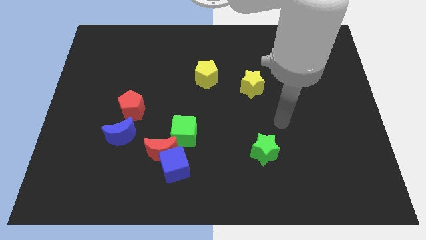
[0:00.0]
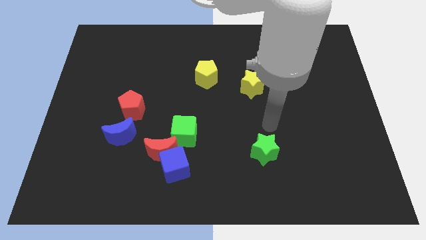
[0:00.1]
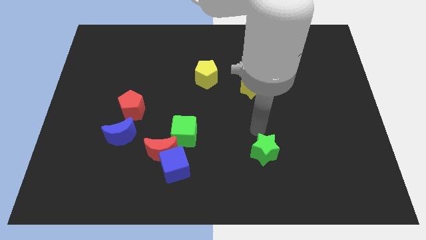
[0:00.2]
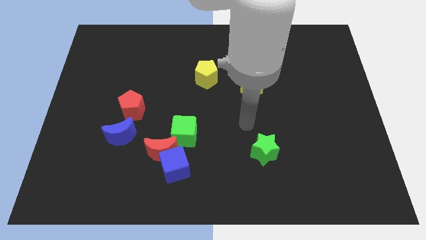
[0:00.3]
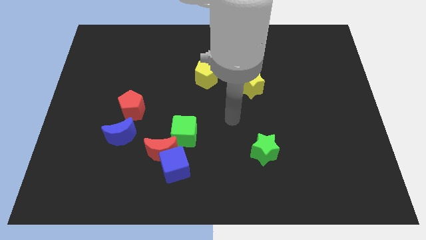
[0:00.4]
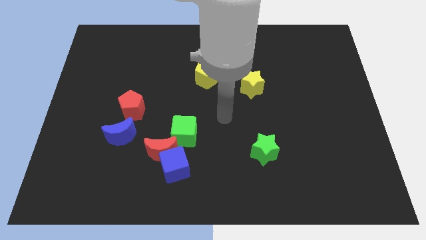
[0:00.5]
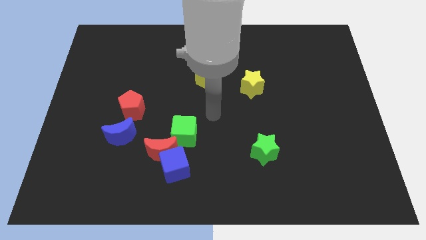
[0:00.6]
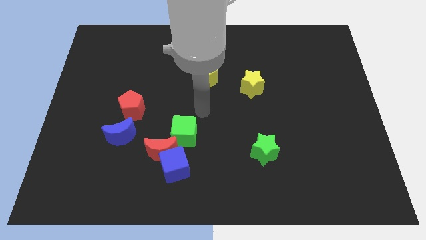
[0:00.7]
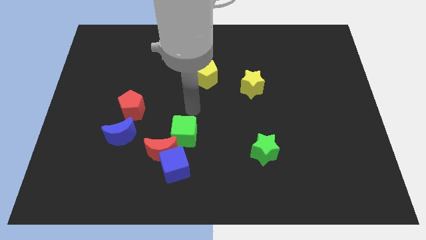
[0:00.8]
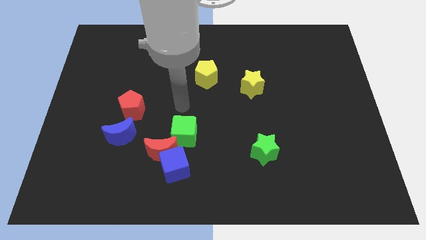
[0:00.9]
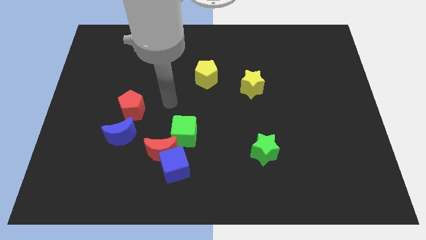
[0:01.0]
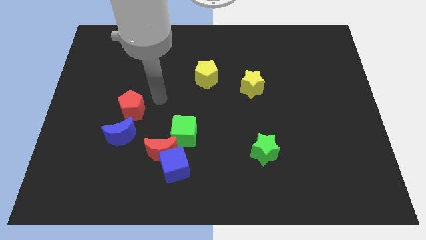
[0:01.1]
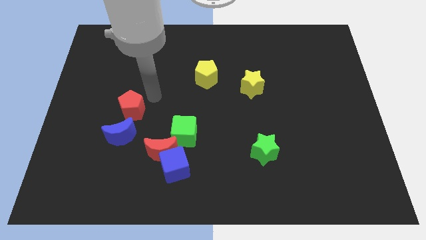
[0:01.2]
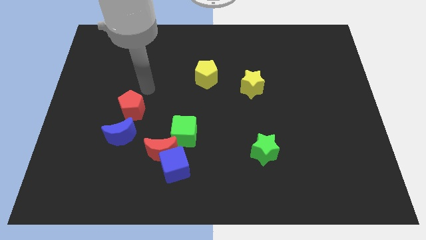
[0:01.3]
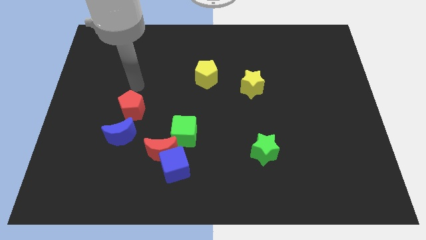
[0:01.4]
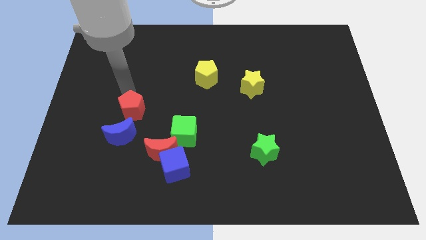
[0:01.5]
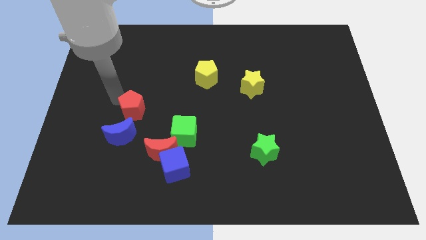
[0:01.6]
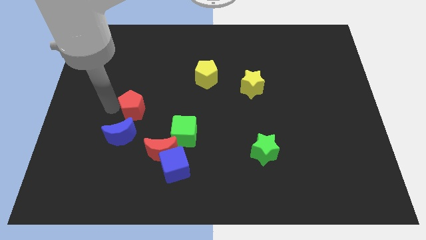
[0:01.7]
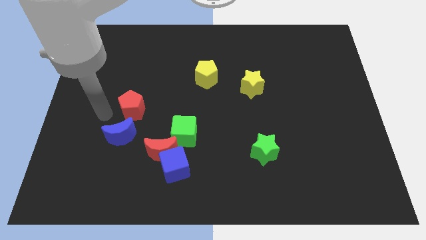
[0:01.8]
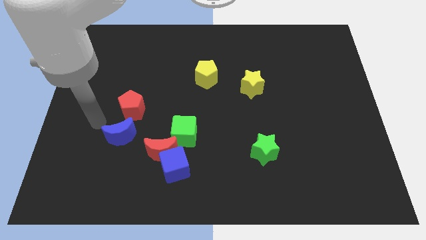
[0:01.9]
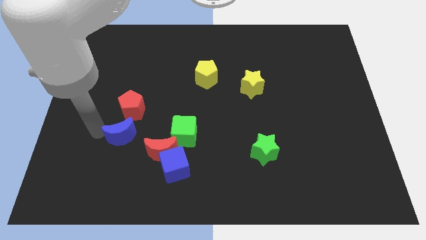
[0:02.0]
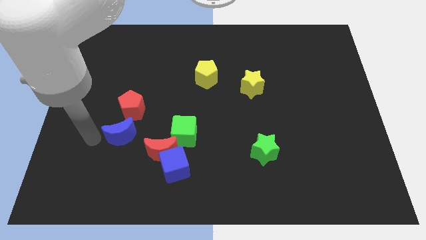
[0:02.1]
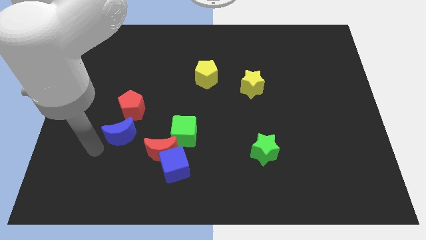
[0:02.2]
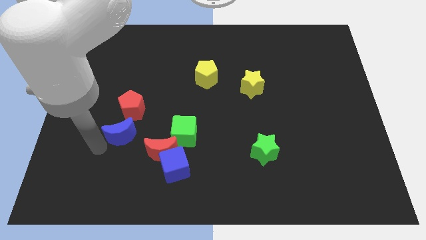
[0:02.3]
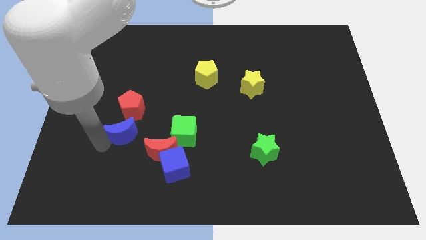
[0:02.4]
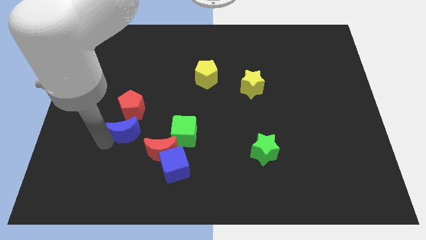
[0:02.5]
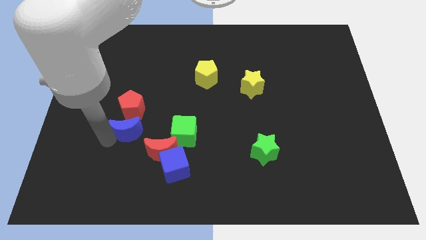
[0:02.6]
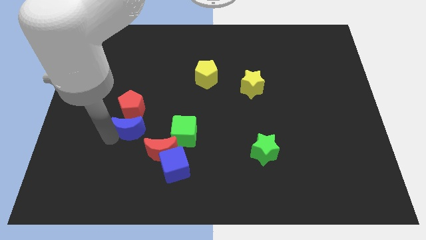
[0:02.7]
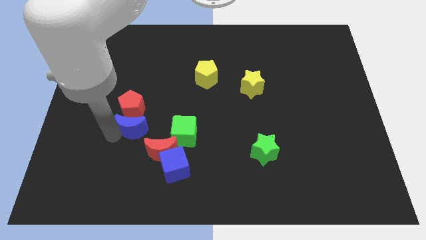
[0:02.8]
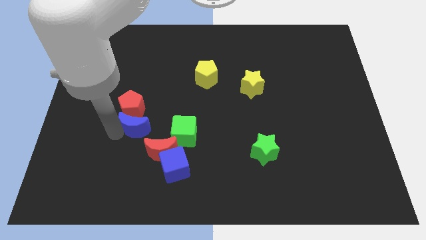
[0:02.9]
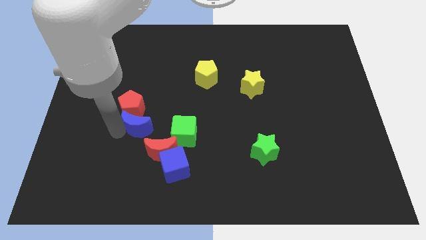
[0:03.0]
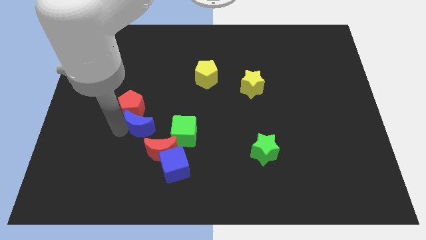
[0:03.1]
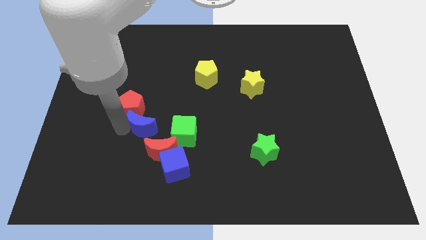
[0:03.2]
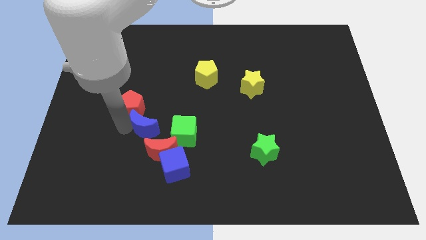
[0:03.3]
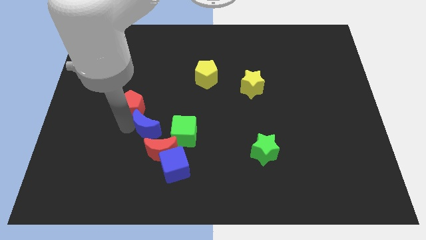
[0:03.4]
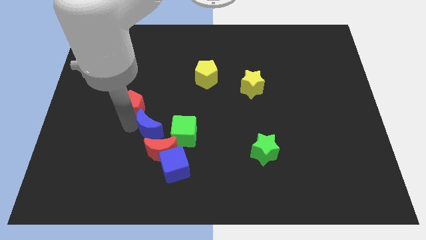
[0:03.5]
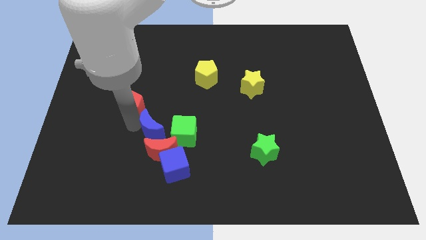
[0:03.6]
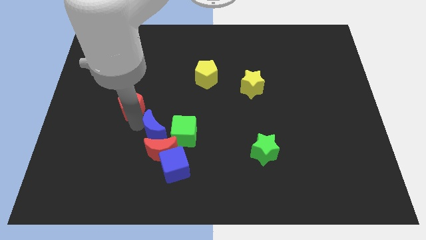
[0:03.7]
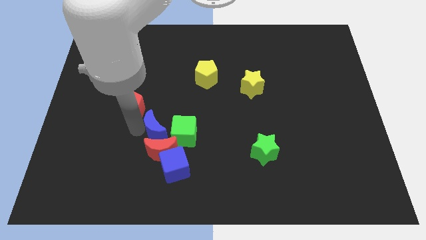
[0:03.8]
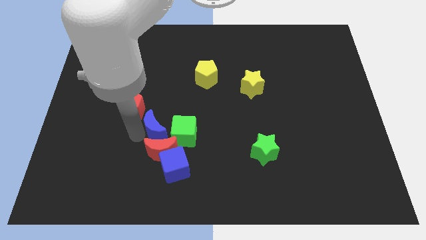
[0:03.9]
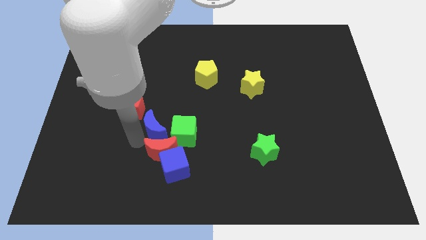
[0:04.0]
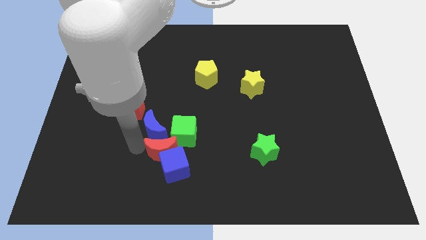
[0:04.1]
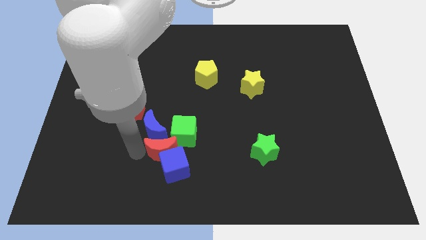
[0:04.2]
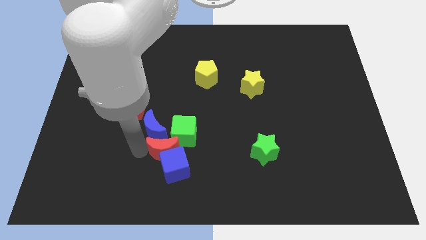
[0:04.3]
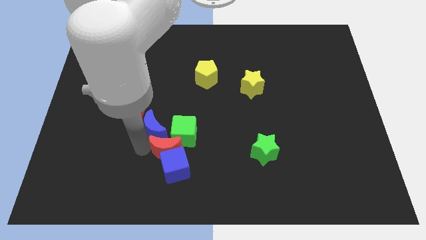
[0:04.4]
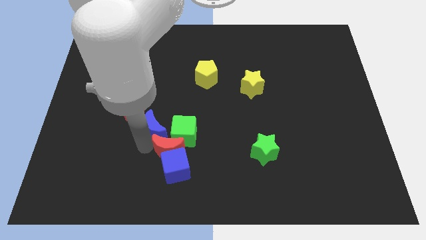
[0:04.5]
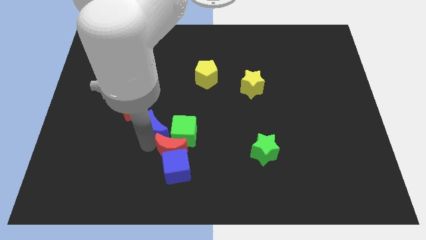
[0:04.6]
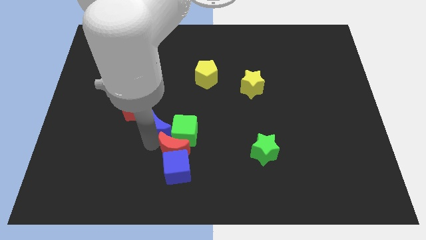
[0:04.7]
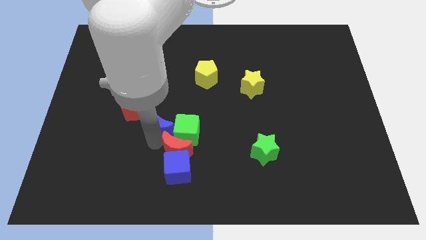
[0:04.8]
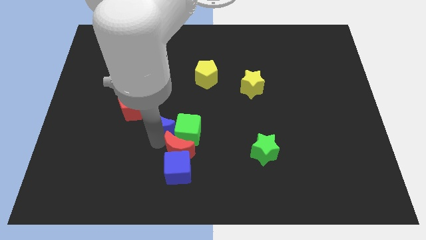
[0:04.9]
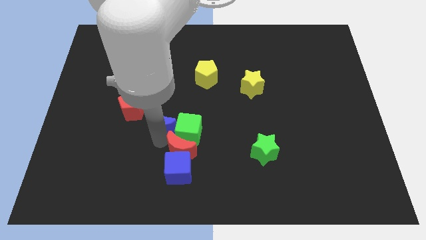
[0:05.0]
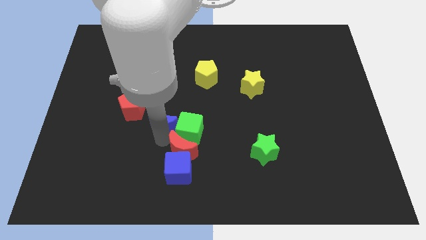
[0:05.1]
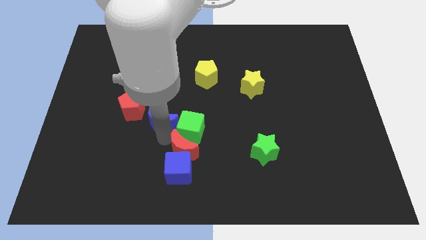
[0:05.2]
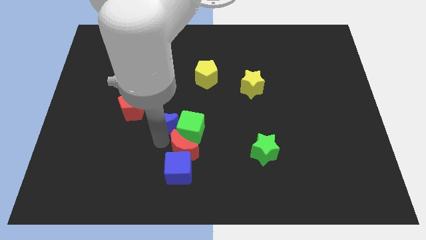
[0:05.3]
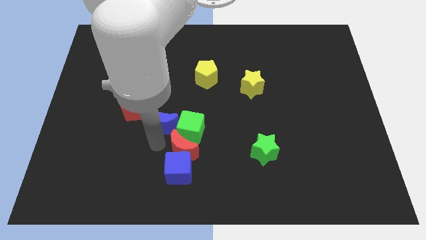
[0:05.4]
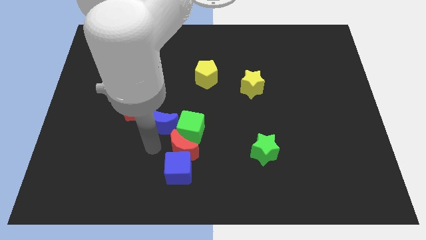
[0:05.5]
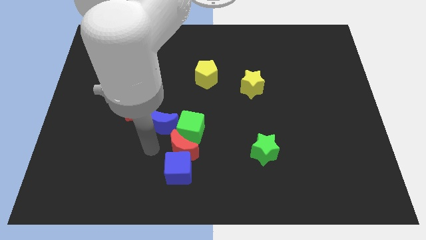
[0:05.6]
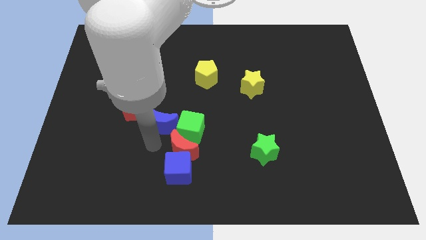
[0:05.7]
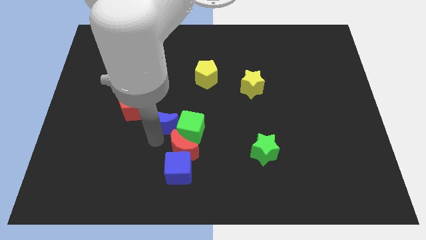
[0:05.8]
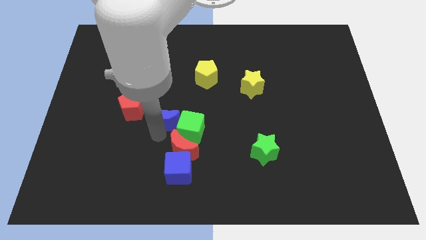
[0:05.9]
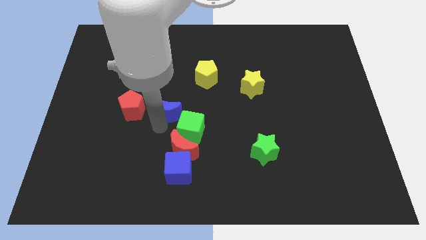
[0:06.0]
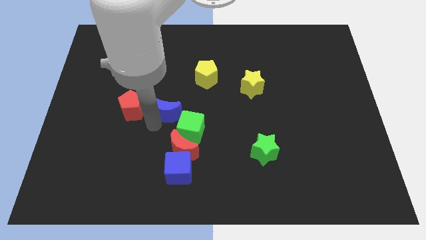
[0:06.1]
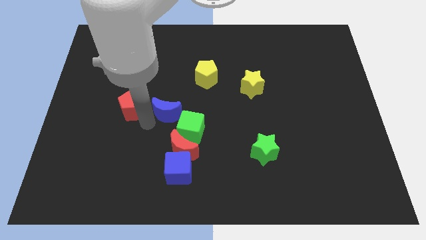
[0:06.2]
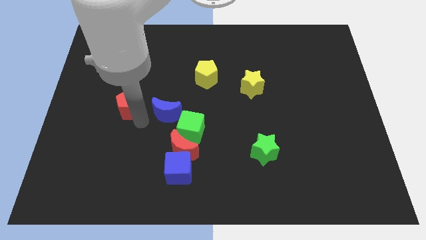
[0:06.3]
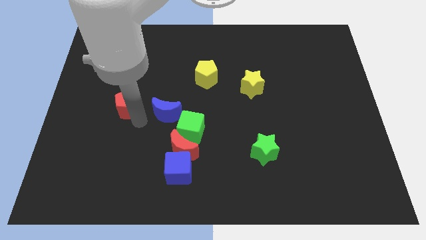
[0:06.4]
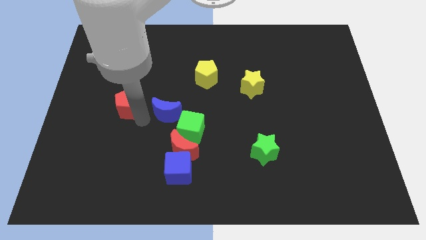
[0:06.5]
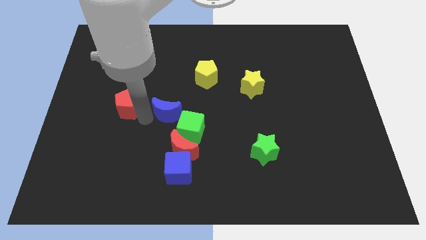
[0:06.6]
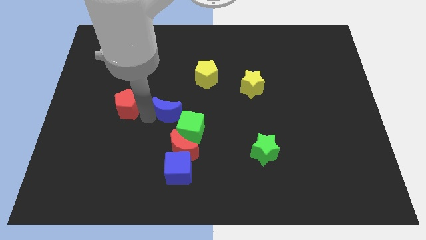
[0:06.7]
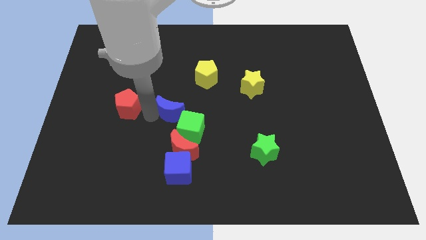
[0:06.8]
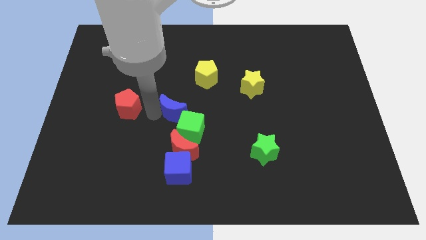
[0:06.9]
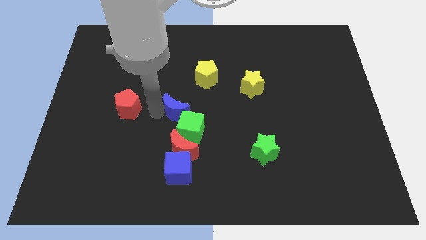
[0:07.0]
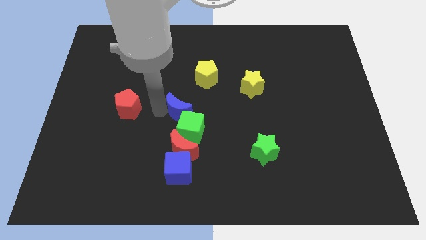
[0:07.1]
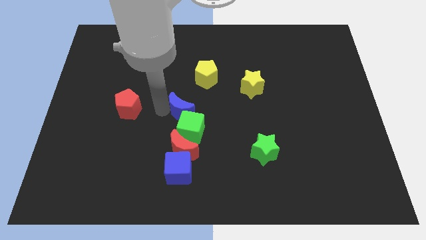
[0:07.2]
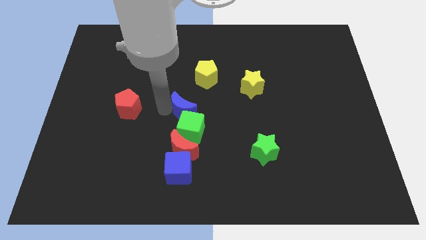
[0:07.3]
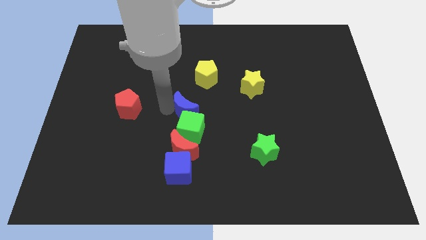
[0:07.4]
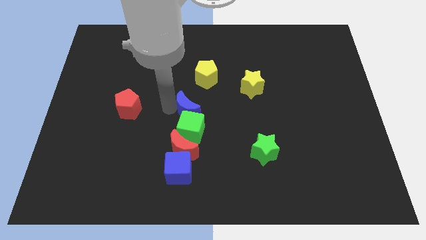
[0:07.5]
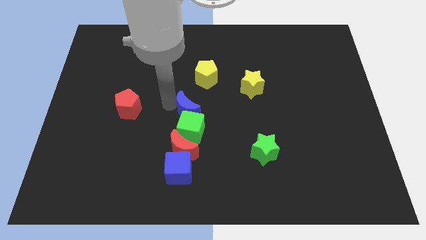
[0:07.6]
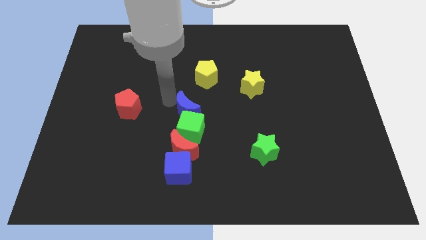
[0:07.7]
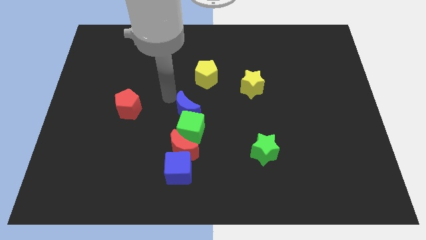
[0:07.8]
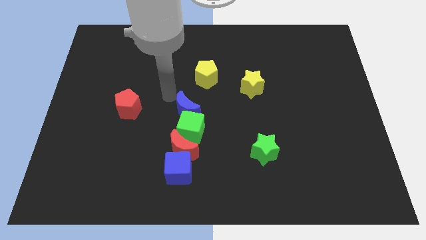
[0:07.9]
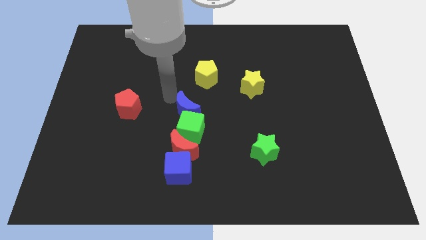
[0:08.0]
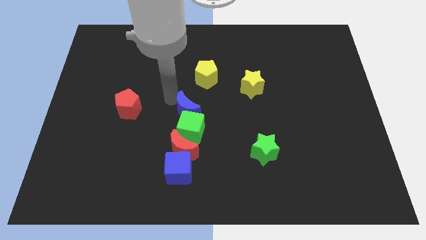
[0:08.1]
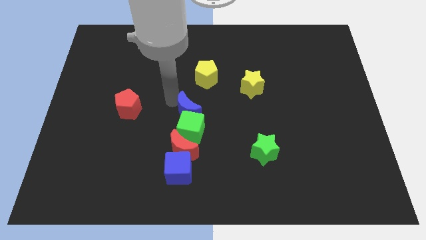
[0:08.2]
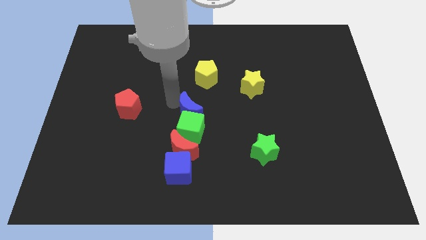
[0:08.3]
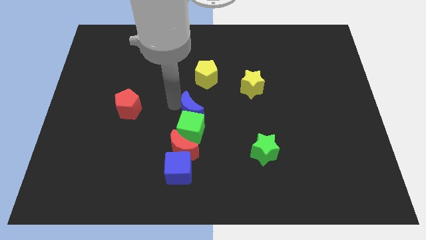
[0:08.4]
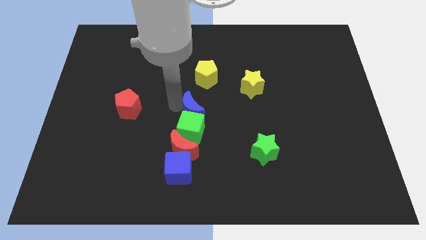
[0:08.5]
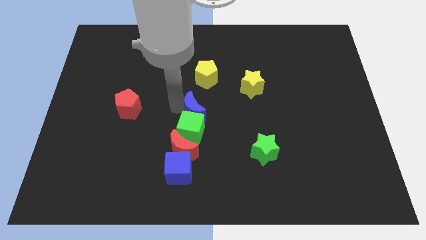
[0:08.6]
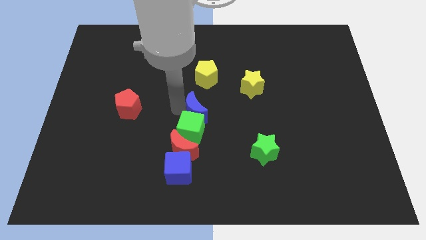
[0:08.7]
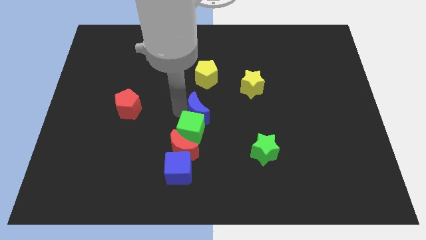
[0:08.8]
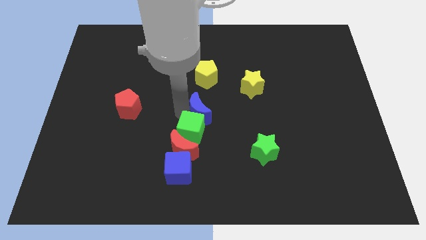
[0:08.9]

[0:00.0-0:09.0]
slide the blue moon to the top right side of the red moon
